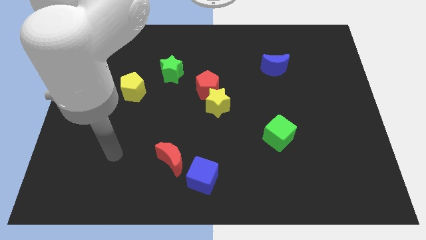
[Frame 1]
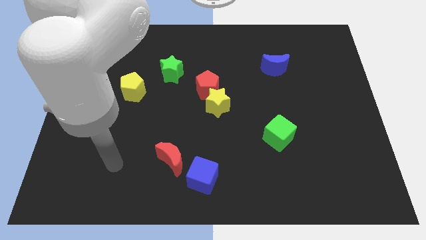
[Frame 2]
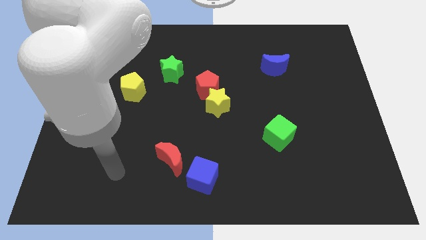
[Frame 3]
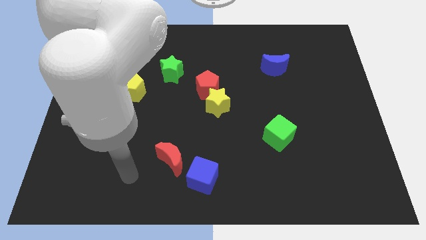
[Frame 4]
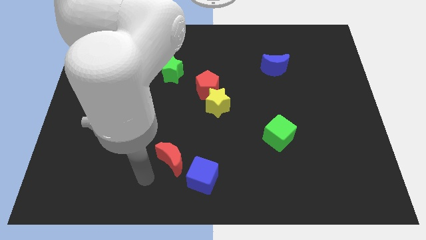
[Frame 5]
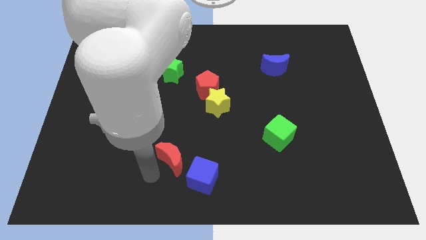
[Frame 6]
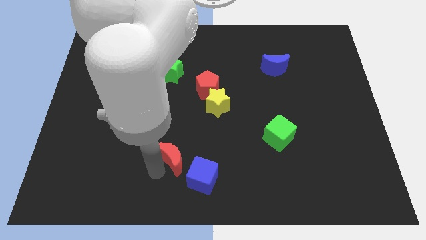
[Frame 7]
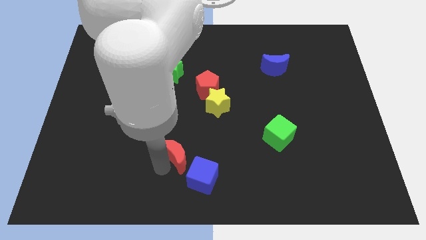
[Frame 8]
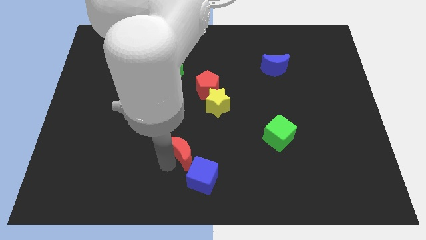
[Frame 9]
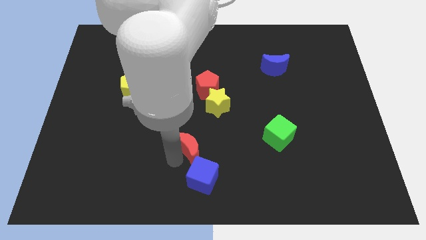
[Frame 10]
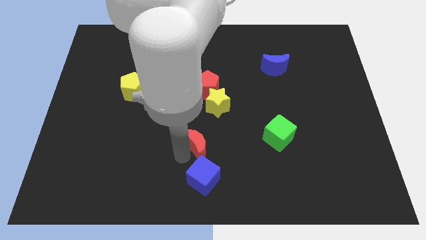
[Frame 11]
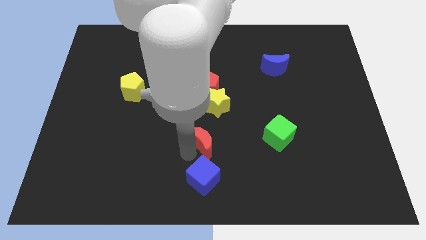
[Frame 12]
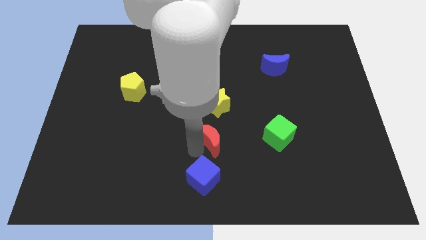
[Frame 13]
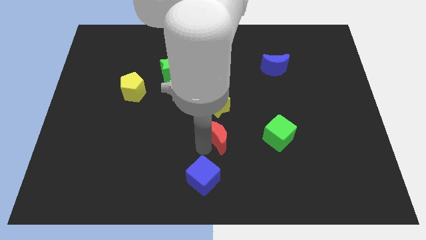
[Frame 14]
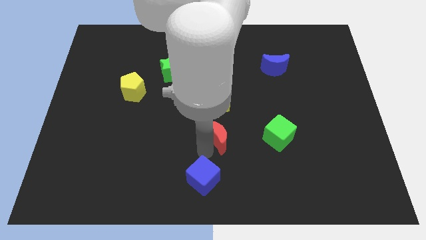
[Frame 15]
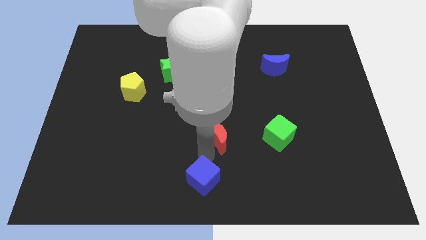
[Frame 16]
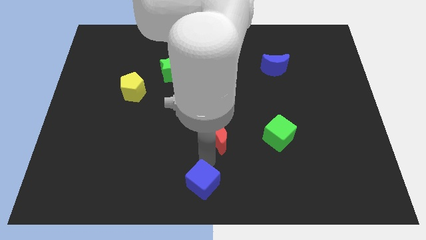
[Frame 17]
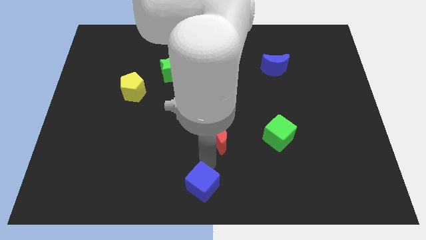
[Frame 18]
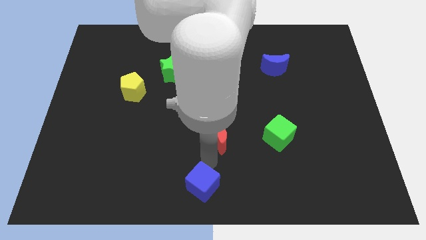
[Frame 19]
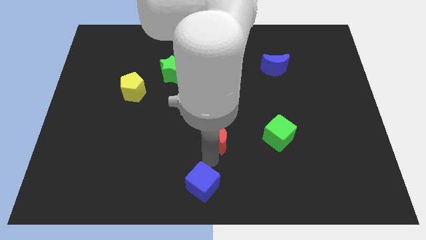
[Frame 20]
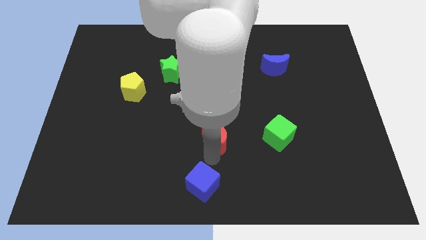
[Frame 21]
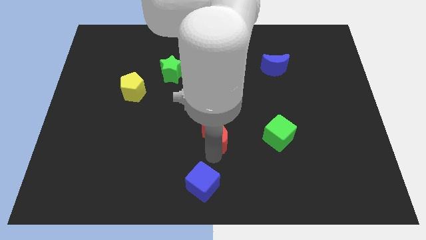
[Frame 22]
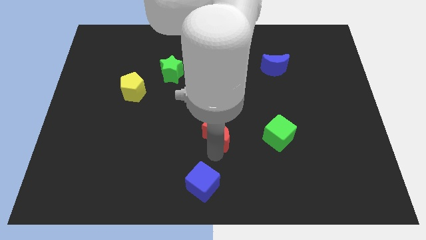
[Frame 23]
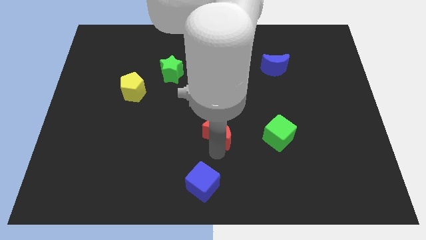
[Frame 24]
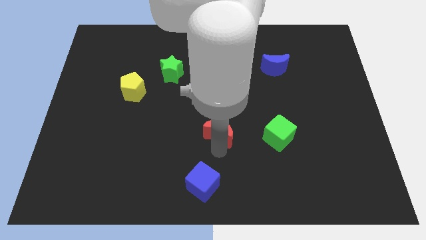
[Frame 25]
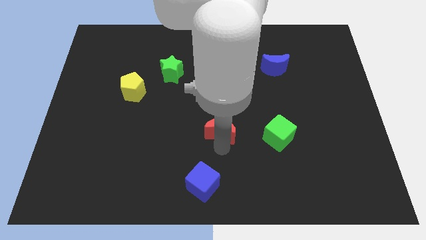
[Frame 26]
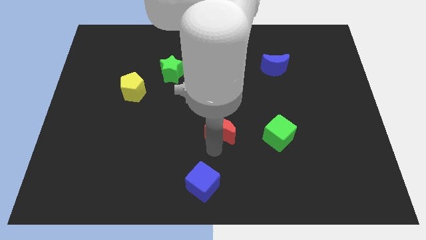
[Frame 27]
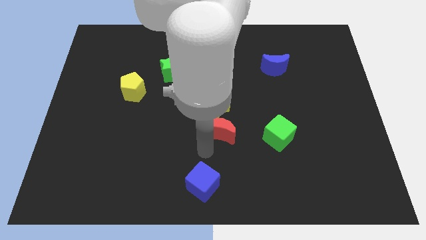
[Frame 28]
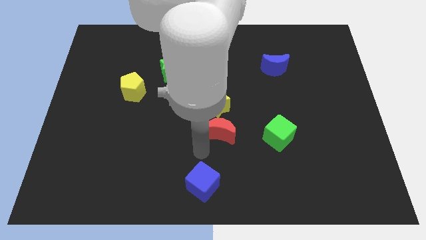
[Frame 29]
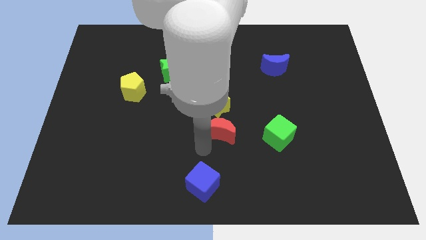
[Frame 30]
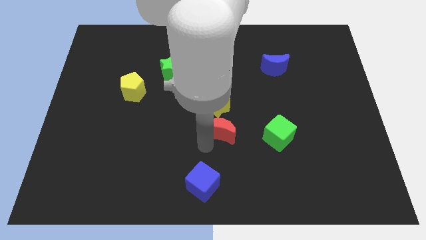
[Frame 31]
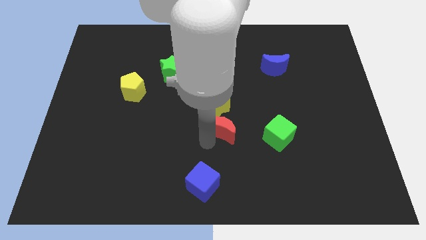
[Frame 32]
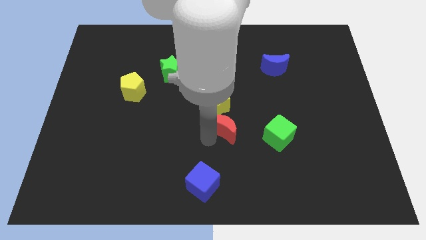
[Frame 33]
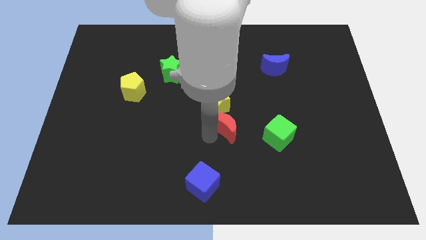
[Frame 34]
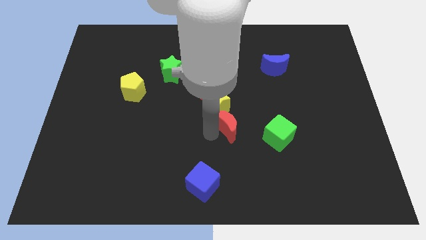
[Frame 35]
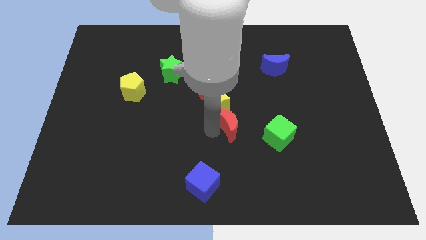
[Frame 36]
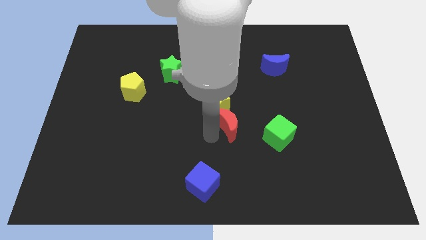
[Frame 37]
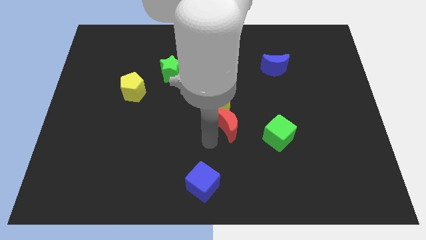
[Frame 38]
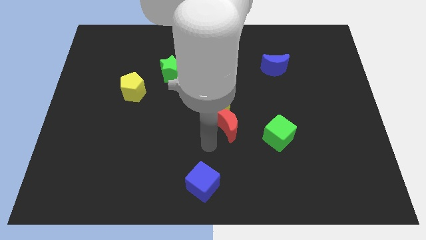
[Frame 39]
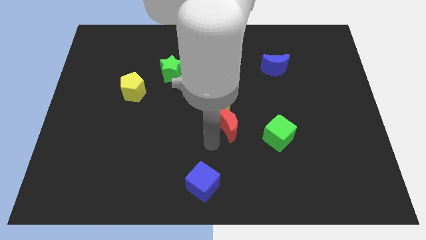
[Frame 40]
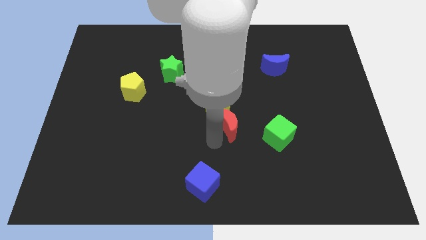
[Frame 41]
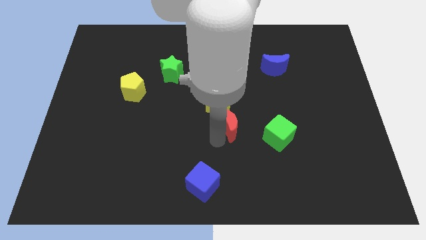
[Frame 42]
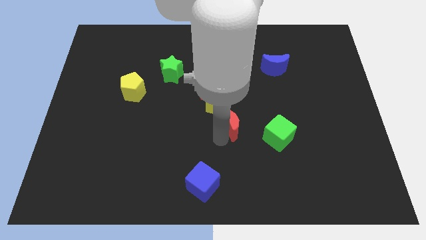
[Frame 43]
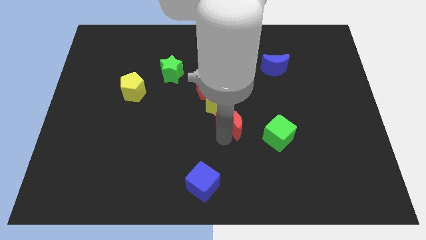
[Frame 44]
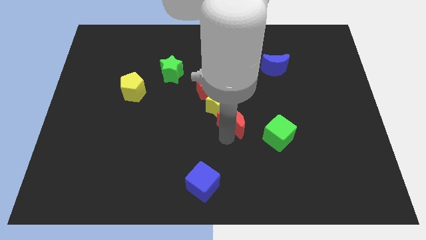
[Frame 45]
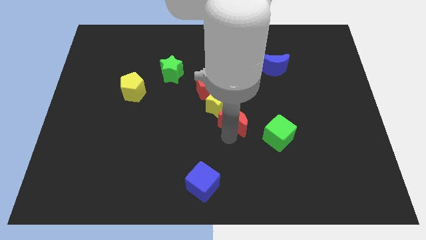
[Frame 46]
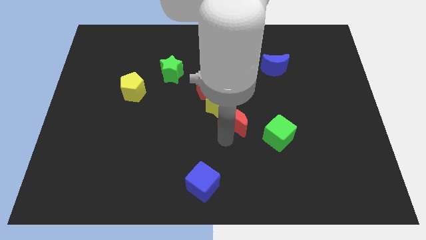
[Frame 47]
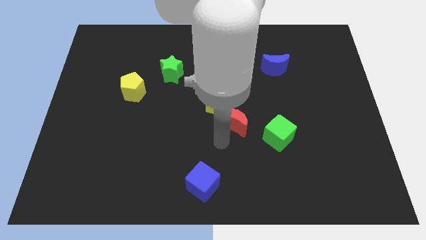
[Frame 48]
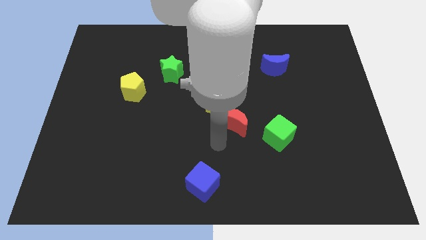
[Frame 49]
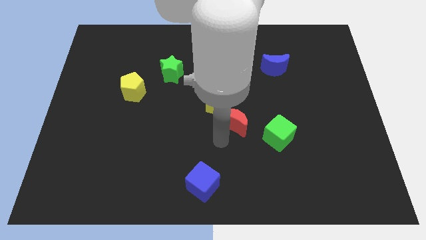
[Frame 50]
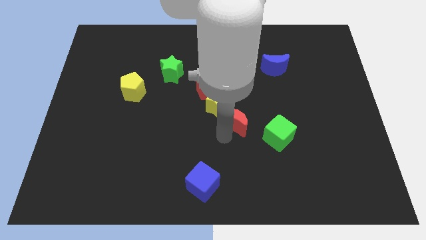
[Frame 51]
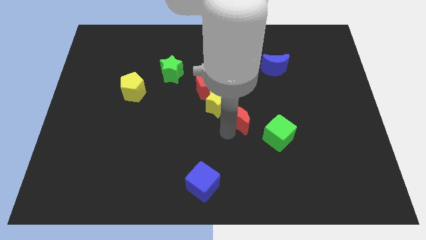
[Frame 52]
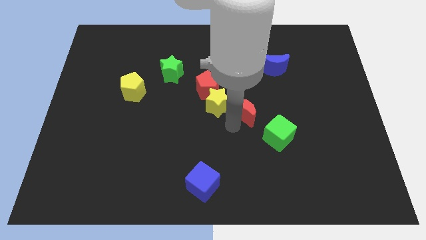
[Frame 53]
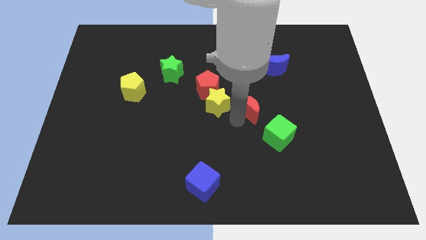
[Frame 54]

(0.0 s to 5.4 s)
slide the red moon up and to the right

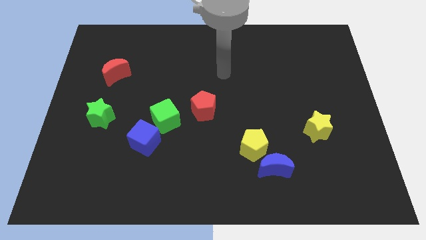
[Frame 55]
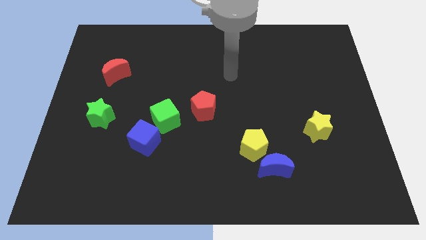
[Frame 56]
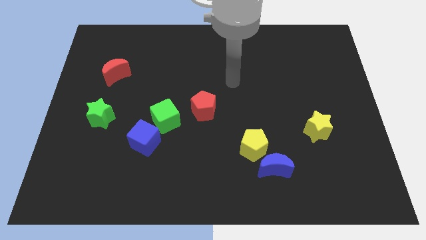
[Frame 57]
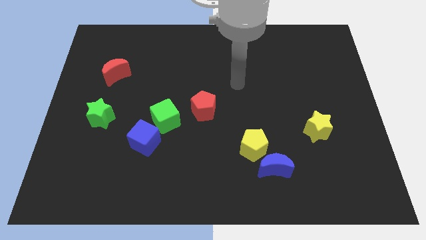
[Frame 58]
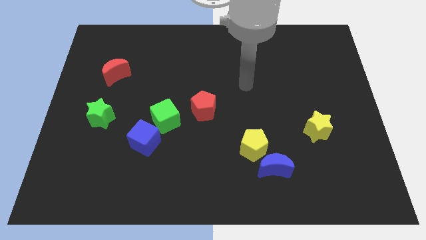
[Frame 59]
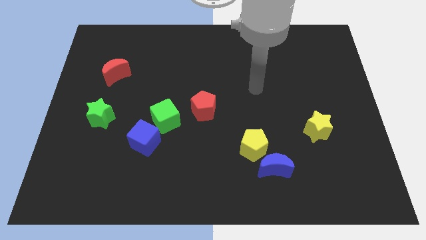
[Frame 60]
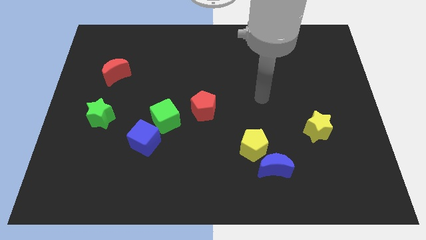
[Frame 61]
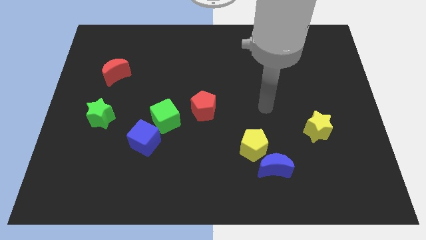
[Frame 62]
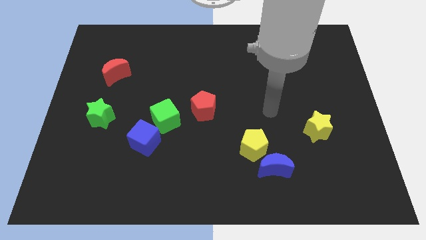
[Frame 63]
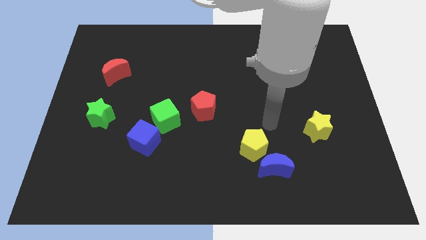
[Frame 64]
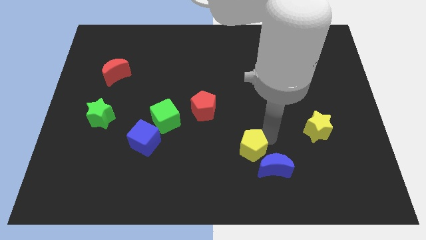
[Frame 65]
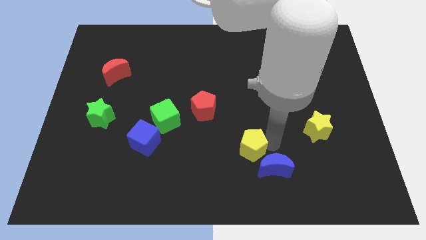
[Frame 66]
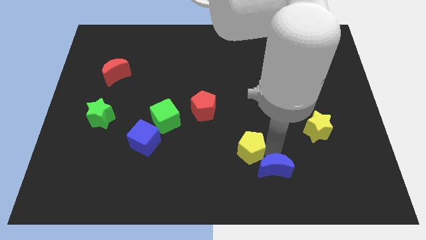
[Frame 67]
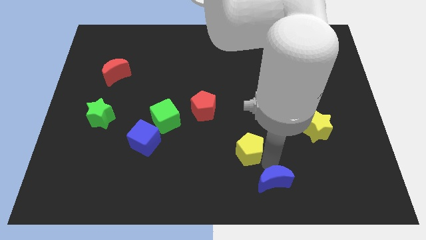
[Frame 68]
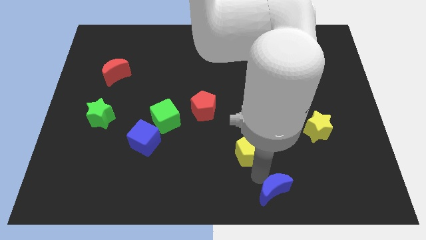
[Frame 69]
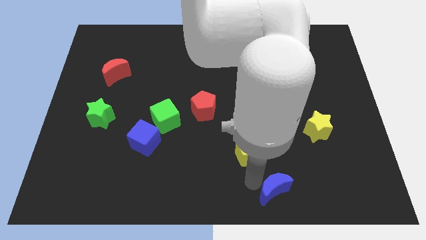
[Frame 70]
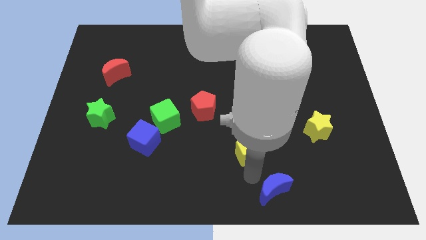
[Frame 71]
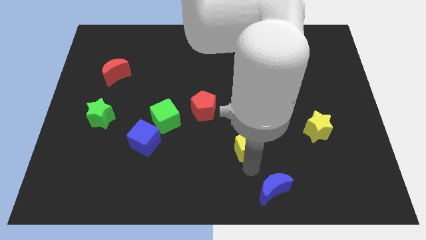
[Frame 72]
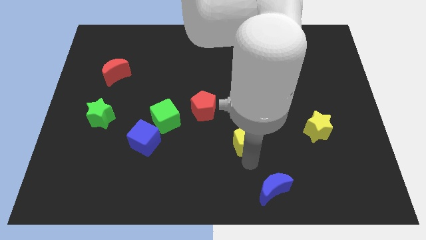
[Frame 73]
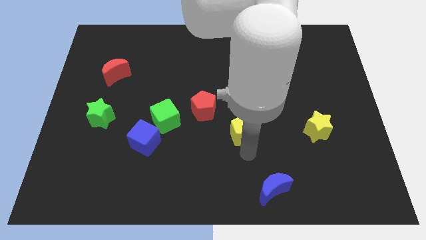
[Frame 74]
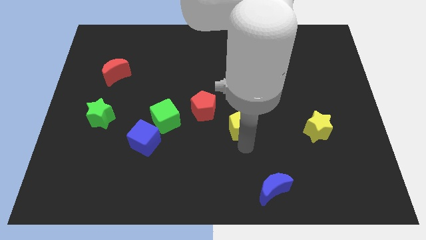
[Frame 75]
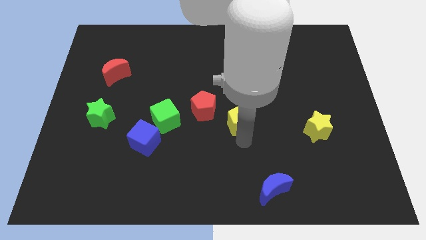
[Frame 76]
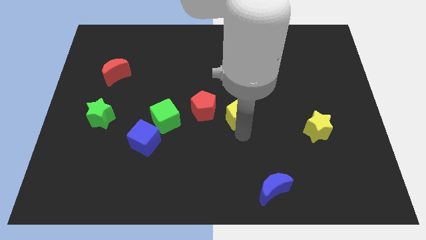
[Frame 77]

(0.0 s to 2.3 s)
slightly slide the yellow pentagon up and left

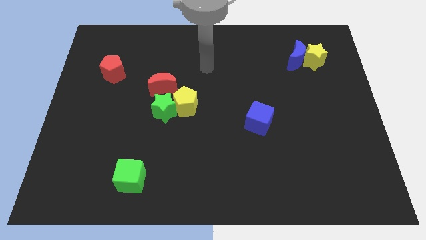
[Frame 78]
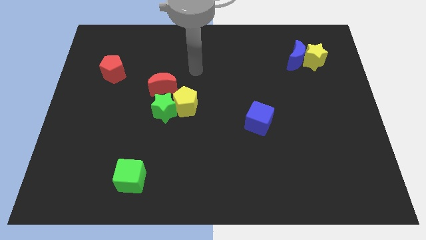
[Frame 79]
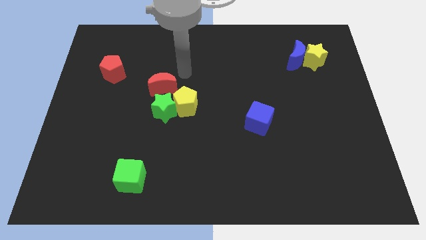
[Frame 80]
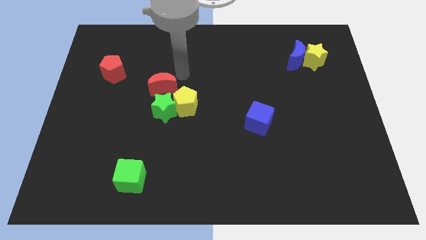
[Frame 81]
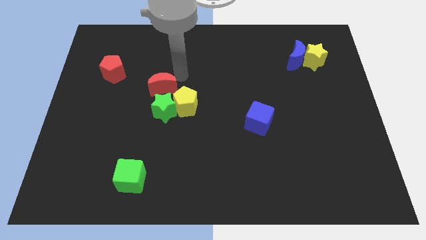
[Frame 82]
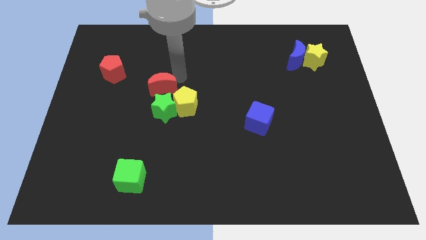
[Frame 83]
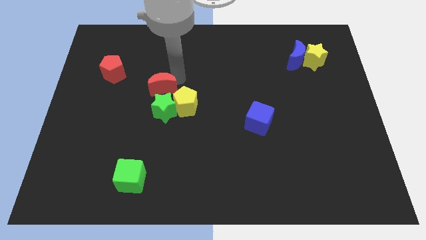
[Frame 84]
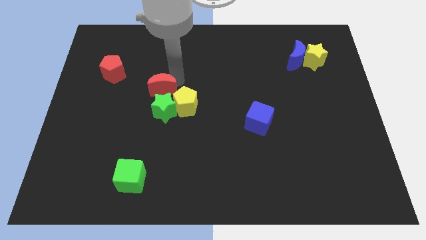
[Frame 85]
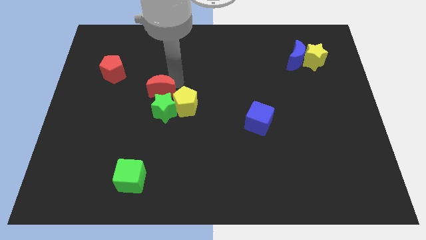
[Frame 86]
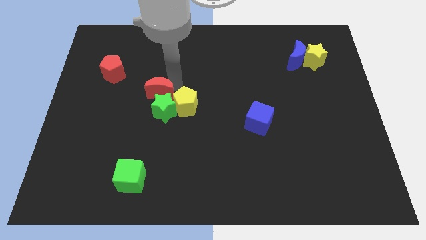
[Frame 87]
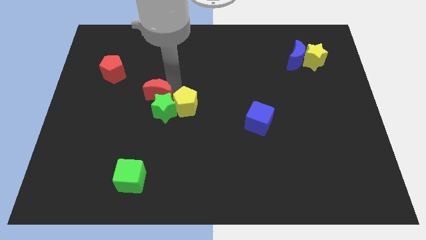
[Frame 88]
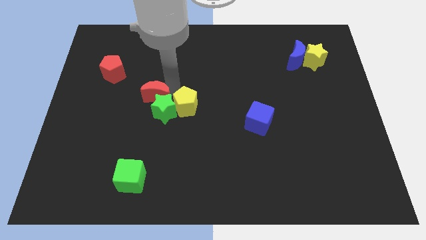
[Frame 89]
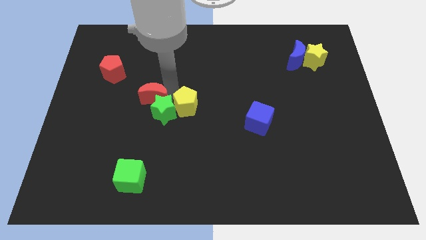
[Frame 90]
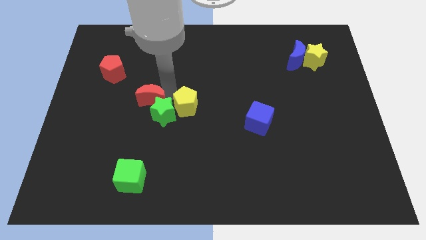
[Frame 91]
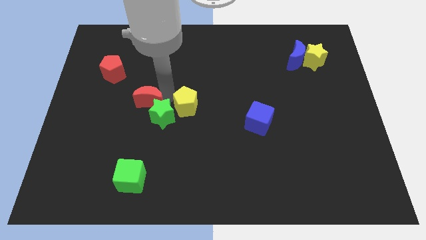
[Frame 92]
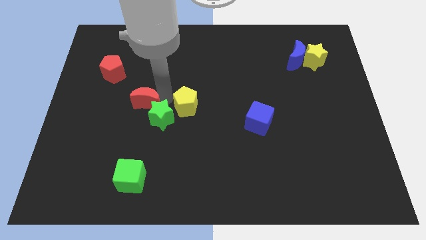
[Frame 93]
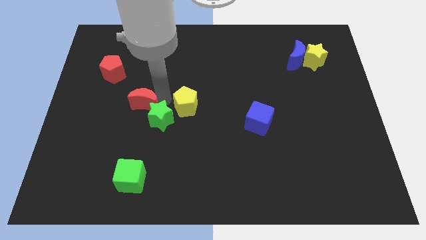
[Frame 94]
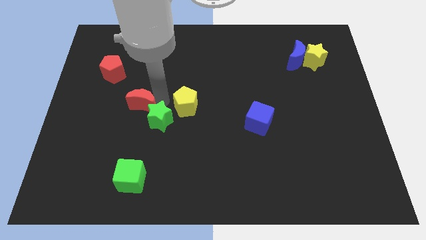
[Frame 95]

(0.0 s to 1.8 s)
slightly push the red moon down and left
